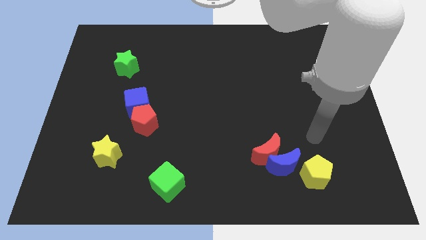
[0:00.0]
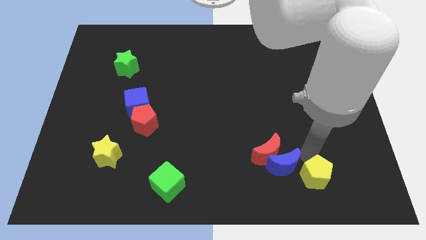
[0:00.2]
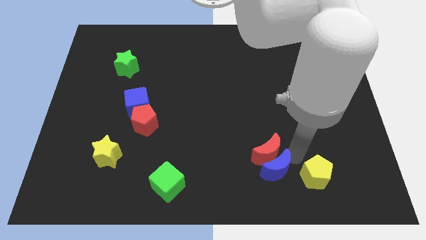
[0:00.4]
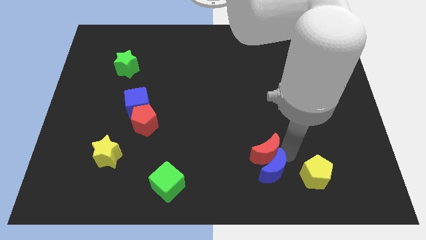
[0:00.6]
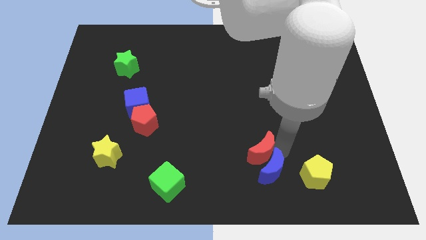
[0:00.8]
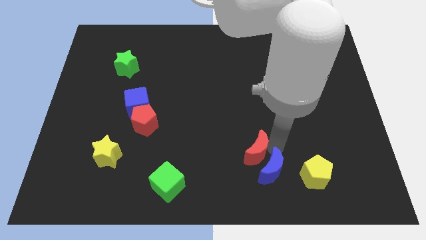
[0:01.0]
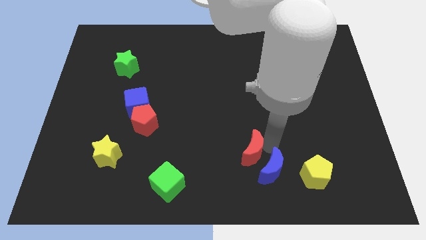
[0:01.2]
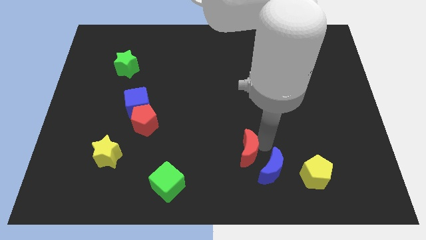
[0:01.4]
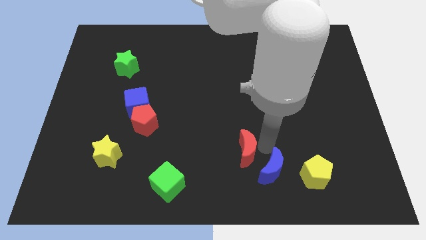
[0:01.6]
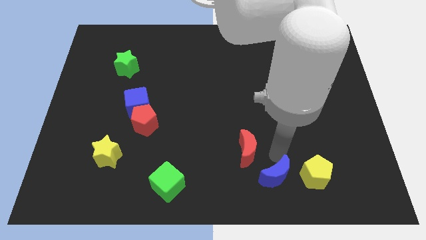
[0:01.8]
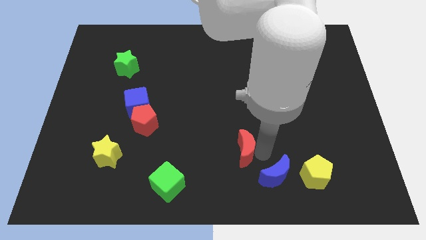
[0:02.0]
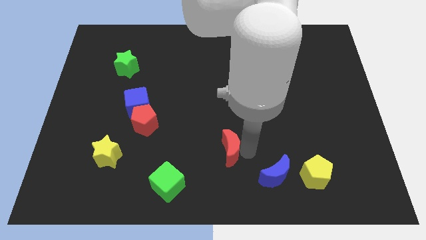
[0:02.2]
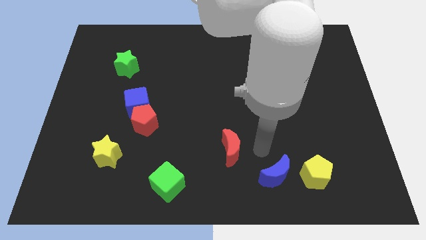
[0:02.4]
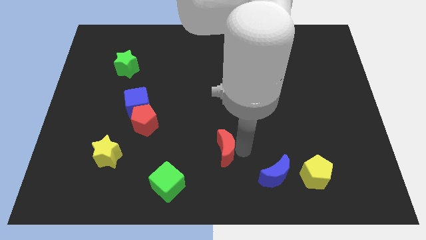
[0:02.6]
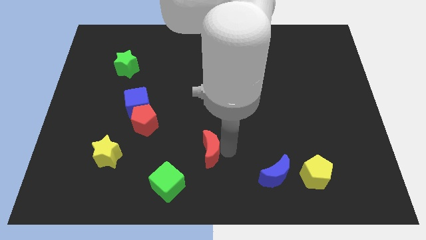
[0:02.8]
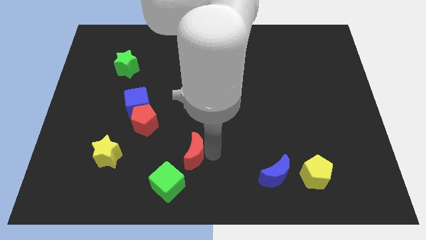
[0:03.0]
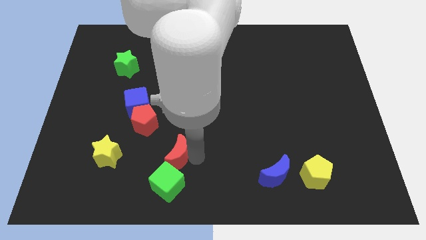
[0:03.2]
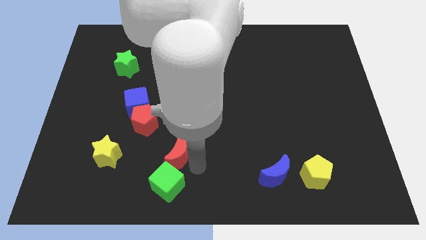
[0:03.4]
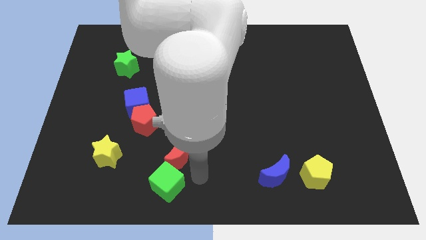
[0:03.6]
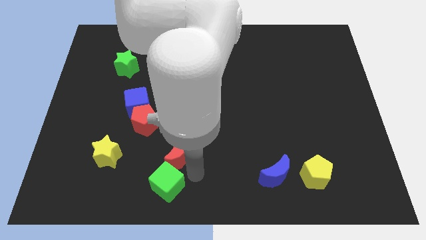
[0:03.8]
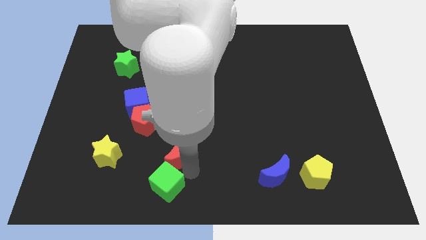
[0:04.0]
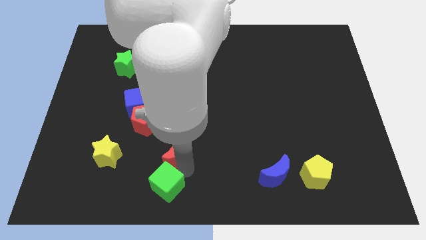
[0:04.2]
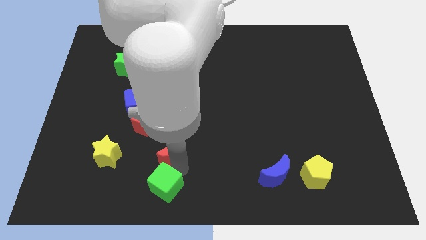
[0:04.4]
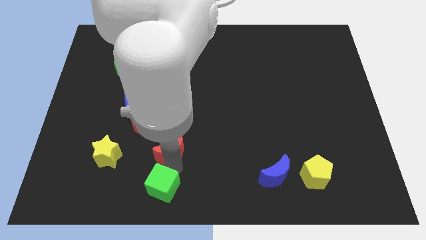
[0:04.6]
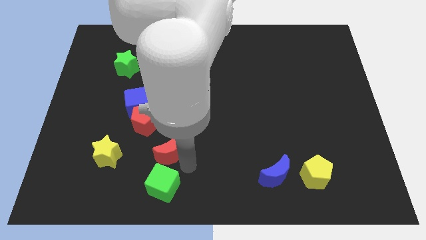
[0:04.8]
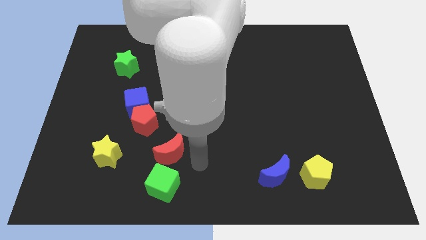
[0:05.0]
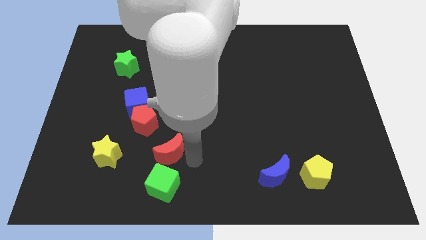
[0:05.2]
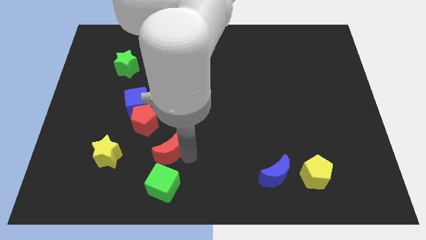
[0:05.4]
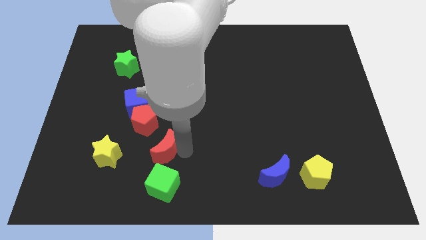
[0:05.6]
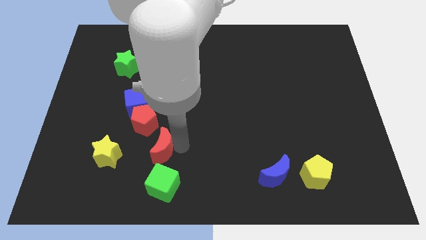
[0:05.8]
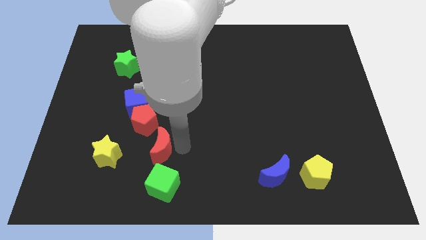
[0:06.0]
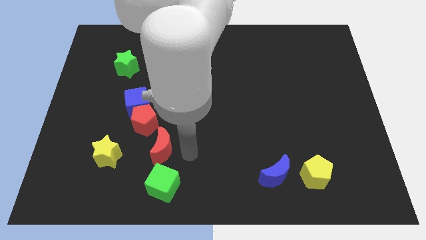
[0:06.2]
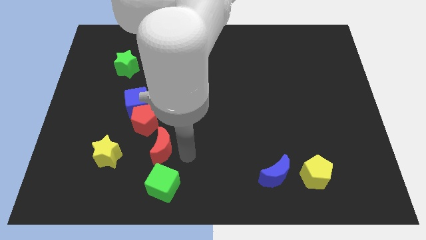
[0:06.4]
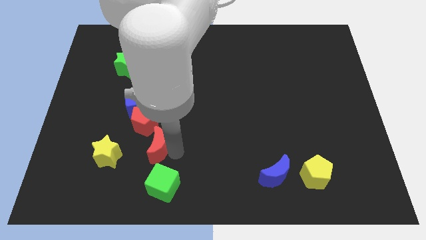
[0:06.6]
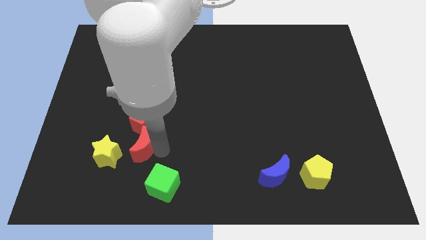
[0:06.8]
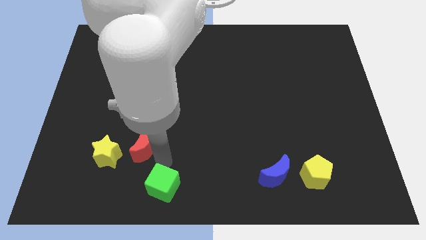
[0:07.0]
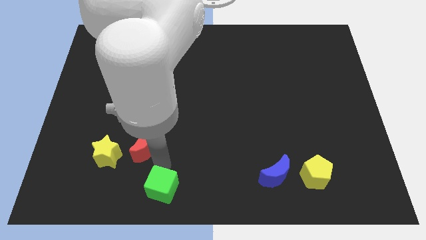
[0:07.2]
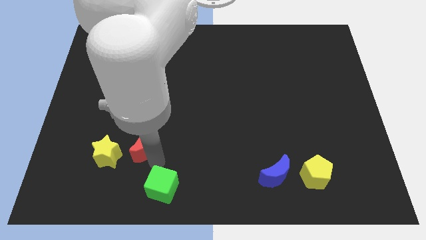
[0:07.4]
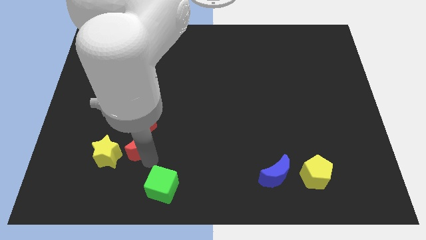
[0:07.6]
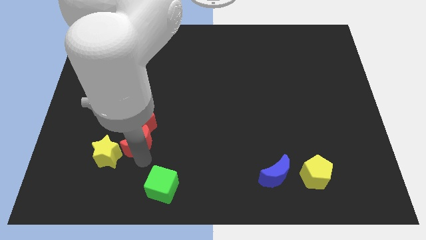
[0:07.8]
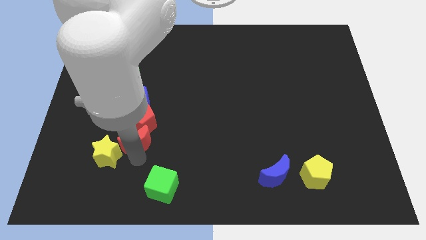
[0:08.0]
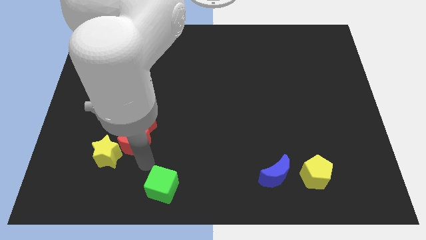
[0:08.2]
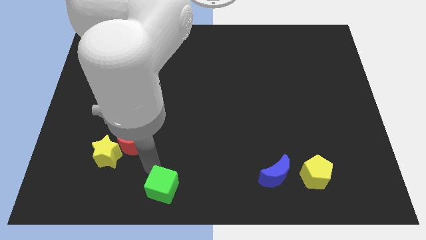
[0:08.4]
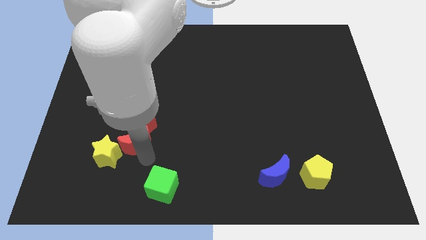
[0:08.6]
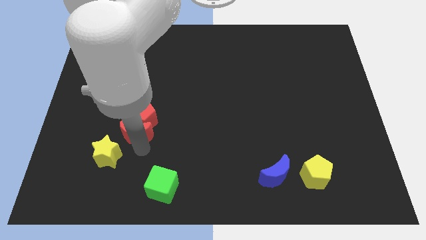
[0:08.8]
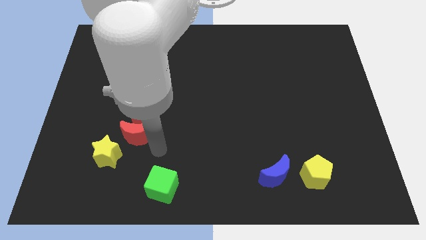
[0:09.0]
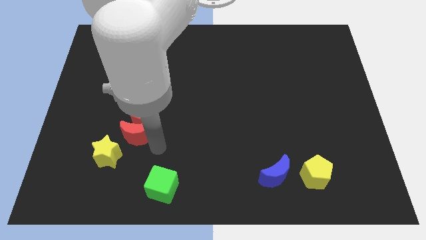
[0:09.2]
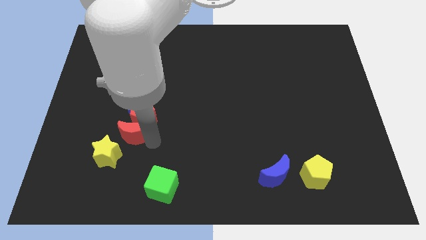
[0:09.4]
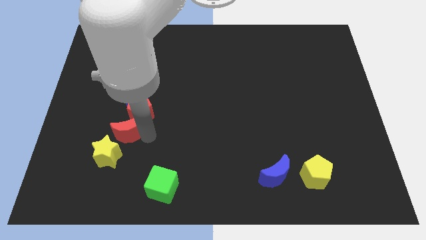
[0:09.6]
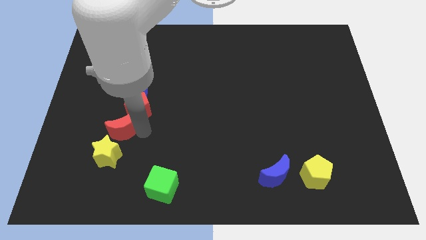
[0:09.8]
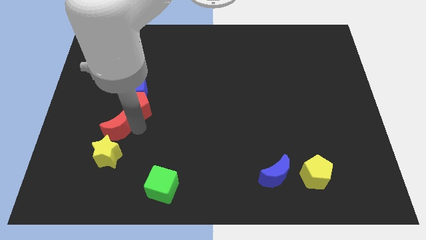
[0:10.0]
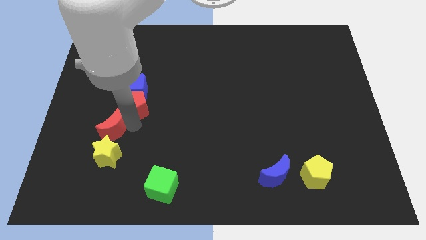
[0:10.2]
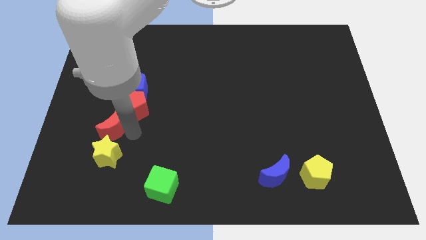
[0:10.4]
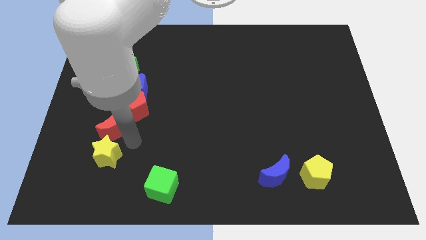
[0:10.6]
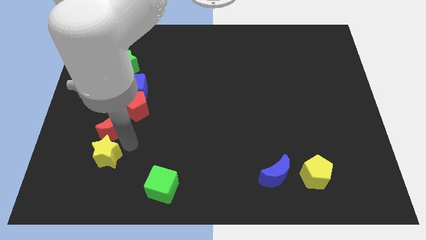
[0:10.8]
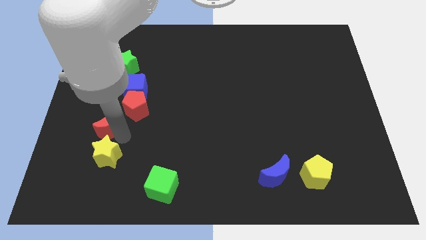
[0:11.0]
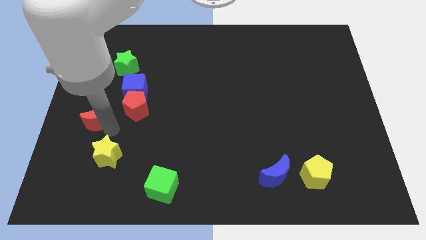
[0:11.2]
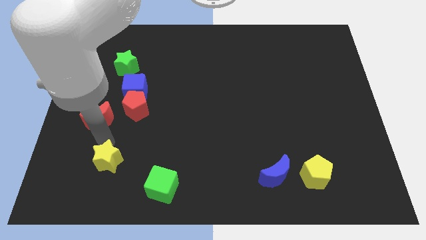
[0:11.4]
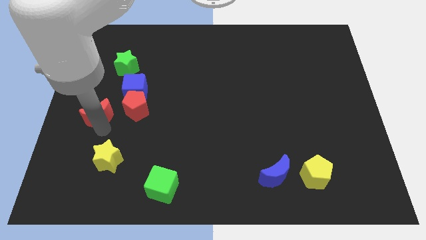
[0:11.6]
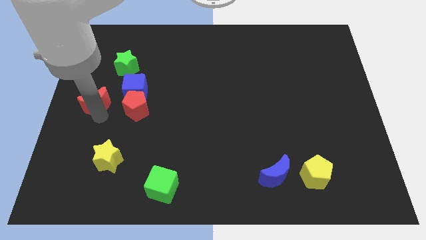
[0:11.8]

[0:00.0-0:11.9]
move the red moon to the left of the blue cube
